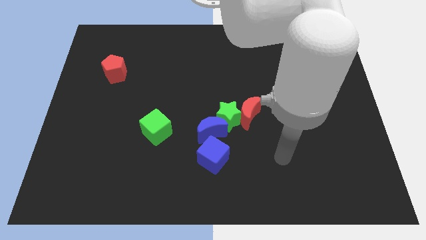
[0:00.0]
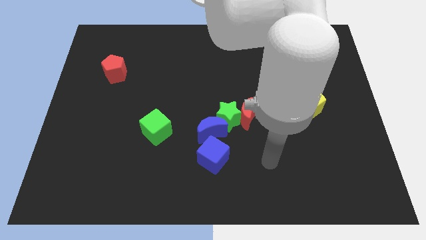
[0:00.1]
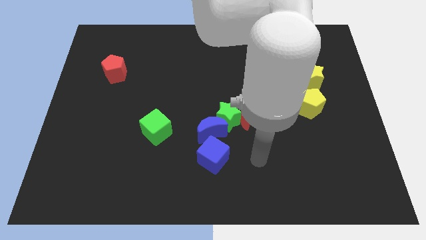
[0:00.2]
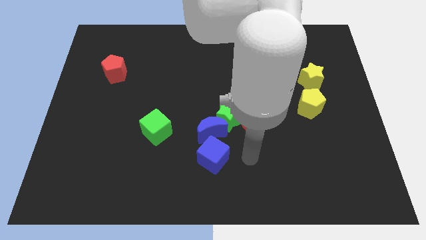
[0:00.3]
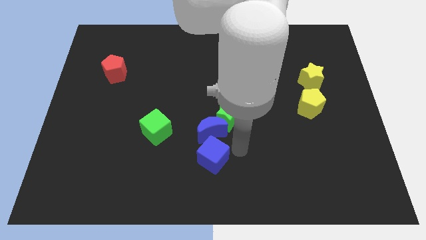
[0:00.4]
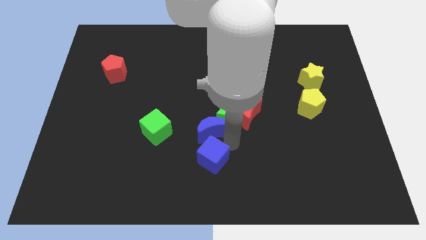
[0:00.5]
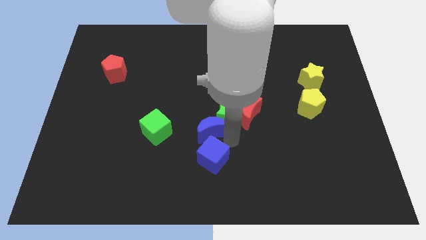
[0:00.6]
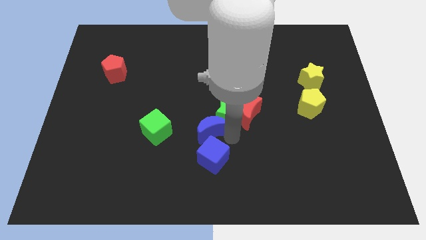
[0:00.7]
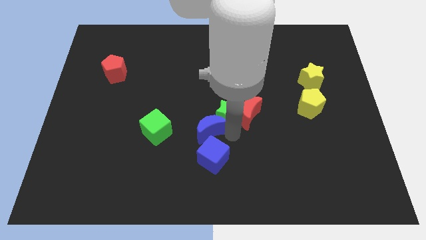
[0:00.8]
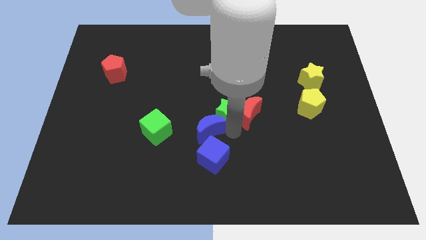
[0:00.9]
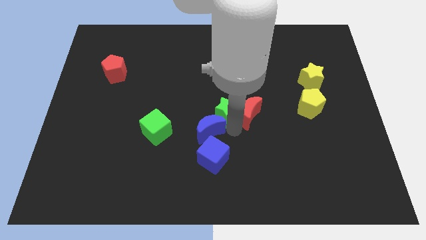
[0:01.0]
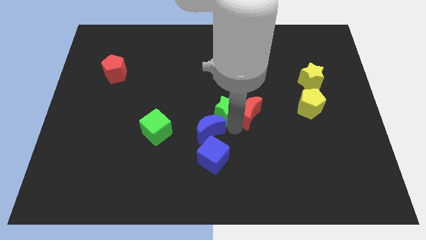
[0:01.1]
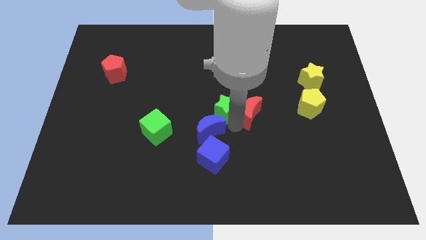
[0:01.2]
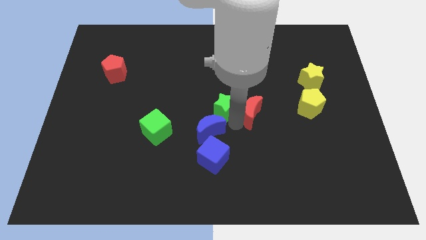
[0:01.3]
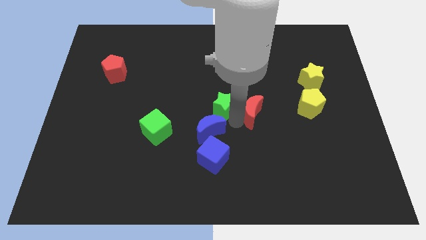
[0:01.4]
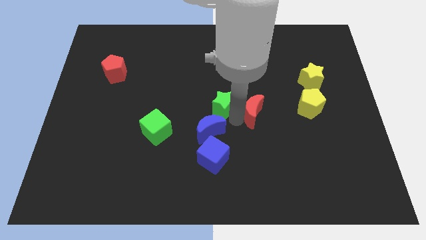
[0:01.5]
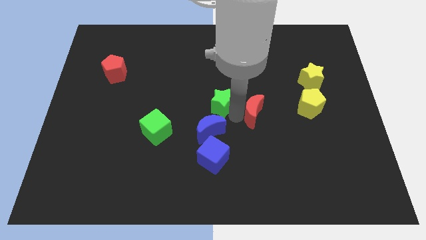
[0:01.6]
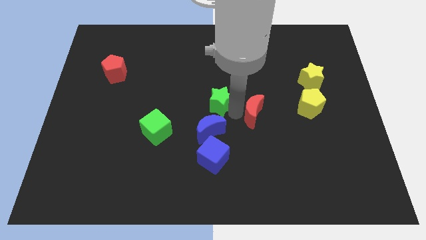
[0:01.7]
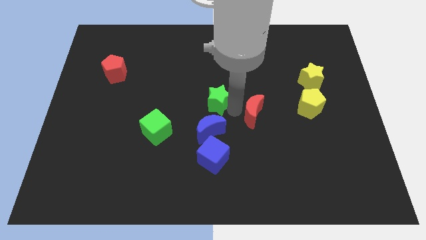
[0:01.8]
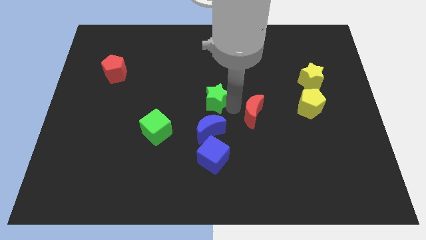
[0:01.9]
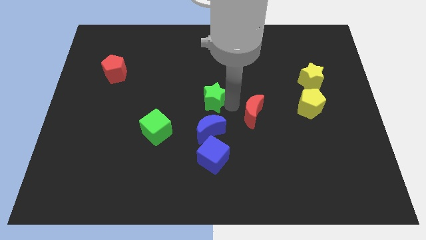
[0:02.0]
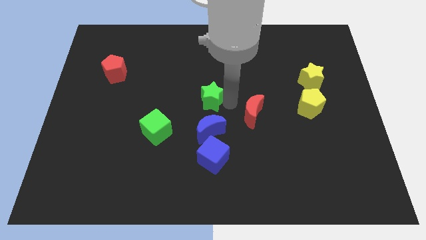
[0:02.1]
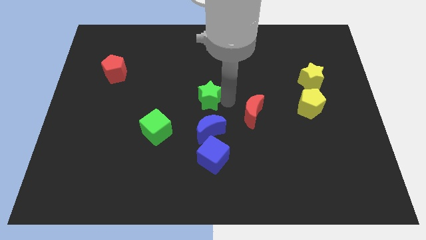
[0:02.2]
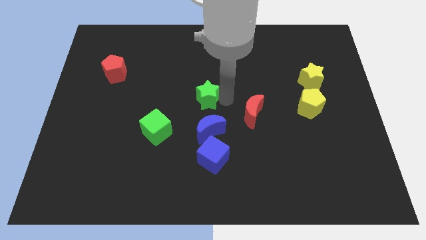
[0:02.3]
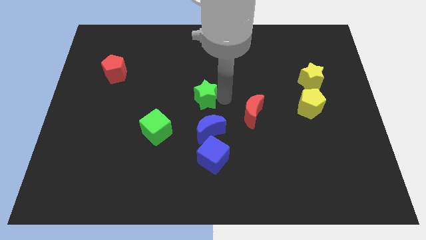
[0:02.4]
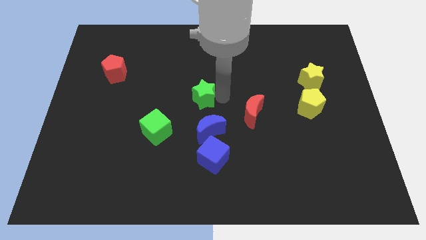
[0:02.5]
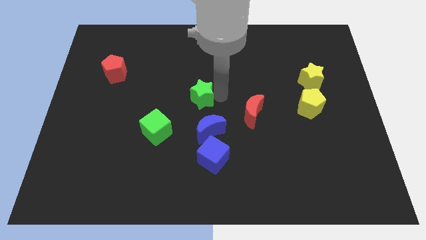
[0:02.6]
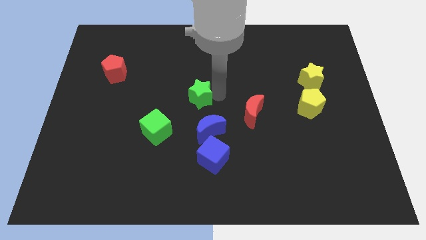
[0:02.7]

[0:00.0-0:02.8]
move the green star away from the red moon and blue moon

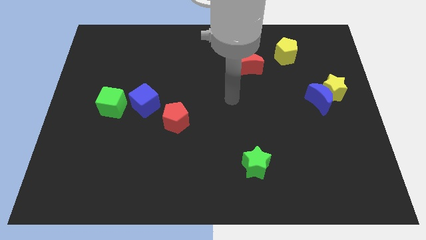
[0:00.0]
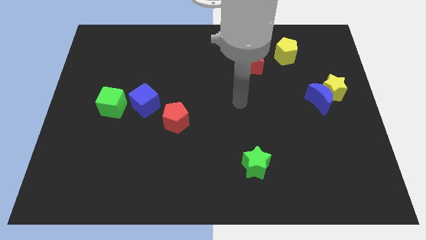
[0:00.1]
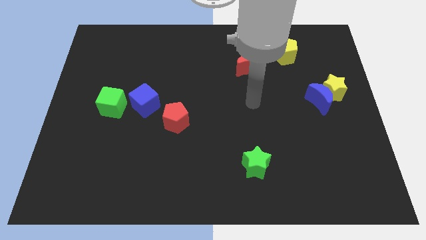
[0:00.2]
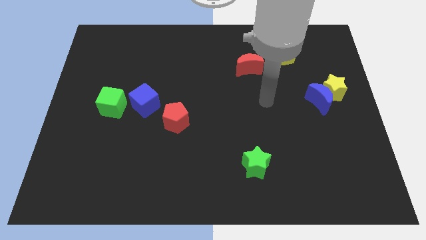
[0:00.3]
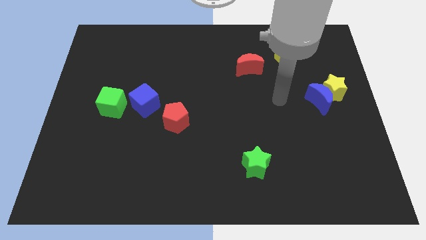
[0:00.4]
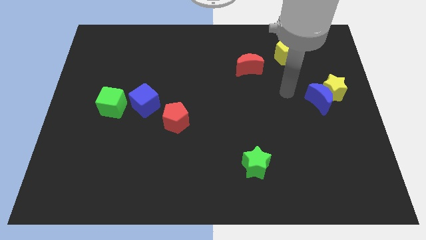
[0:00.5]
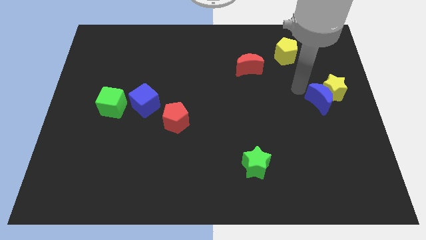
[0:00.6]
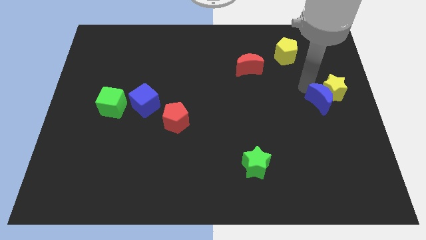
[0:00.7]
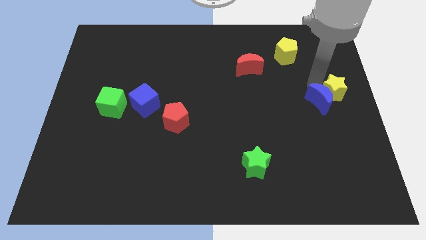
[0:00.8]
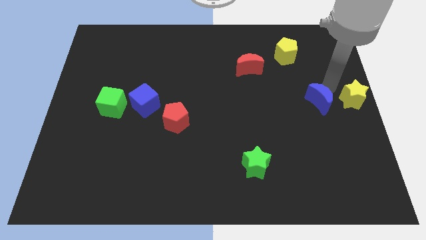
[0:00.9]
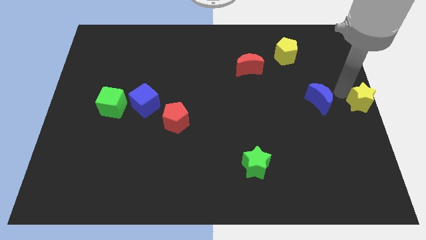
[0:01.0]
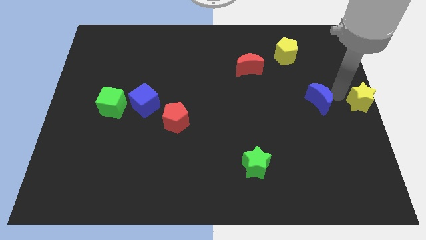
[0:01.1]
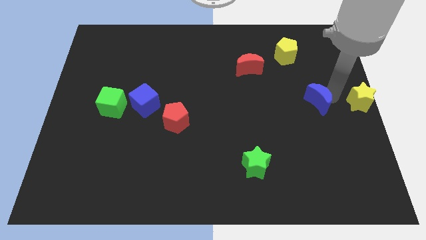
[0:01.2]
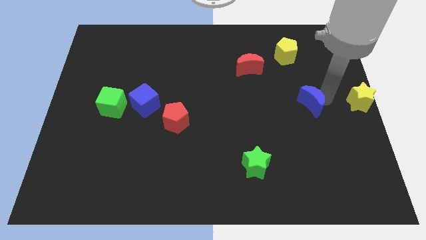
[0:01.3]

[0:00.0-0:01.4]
pull the blue moon apart from the yellow star

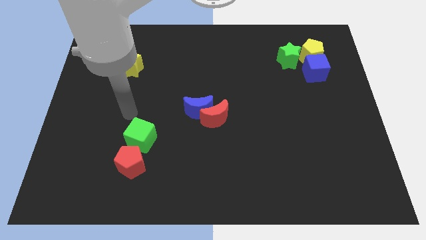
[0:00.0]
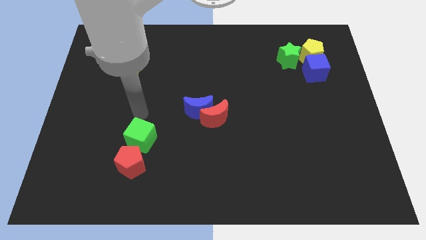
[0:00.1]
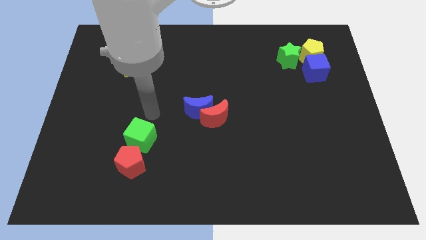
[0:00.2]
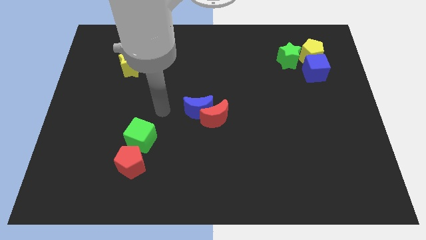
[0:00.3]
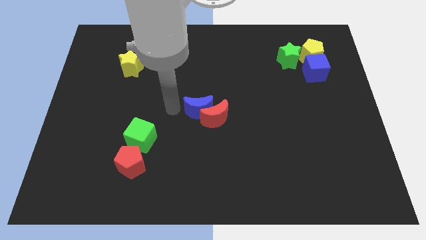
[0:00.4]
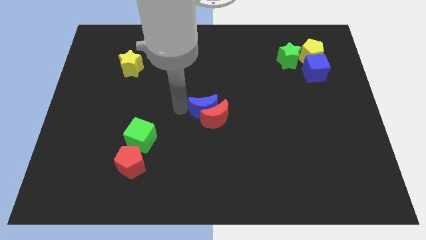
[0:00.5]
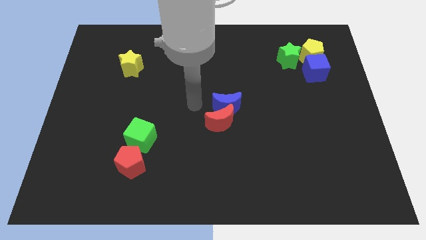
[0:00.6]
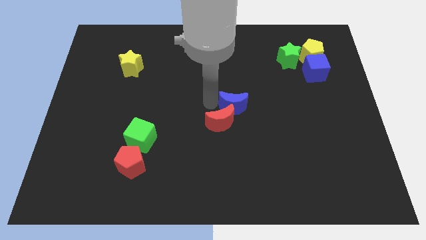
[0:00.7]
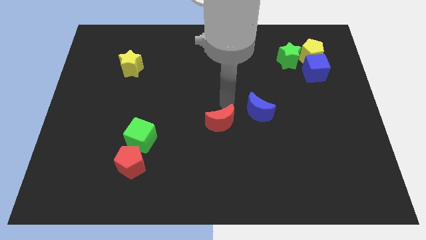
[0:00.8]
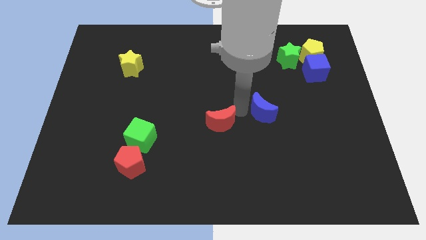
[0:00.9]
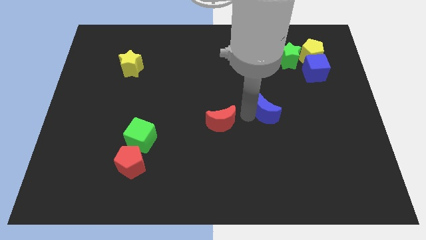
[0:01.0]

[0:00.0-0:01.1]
pull the red moon apart from the blue moon

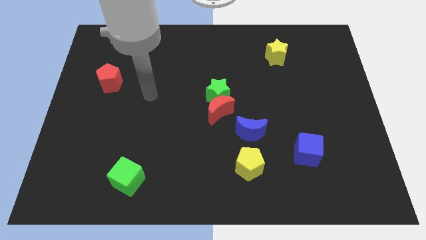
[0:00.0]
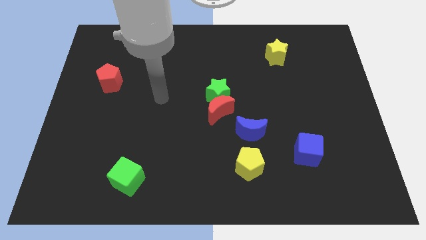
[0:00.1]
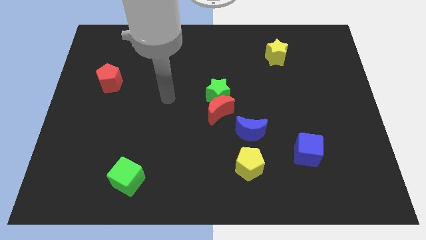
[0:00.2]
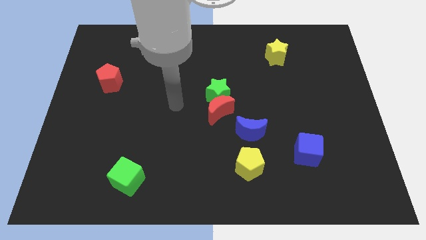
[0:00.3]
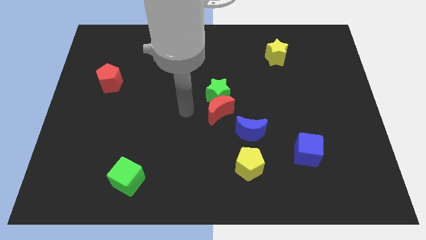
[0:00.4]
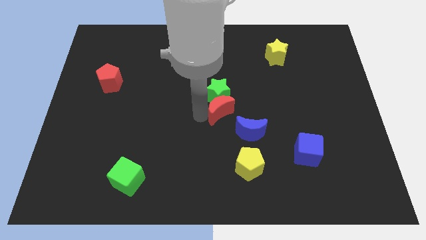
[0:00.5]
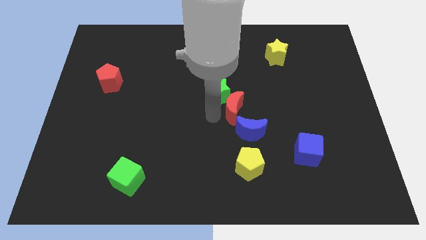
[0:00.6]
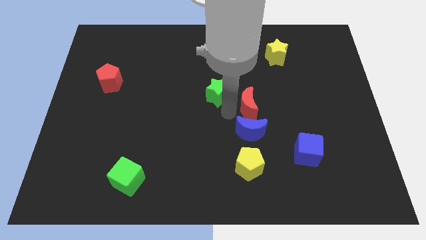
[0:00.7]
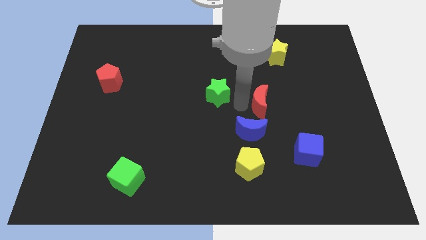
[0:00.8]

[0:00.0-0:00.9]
separate the green star from the red moon

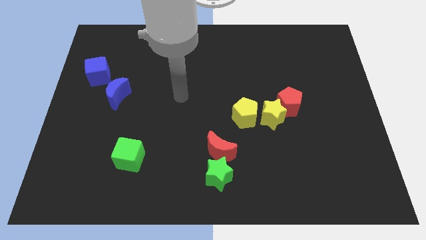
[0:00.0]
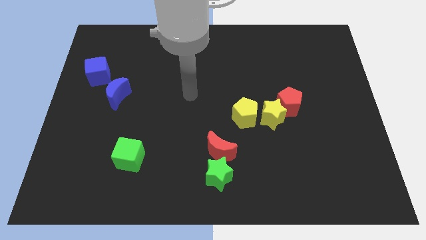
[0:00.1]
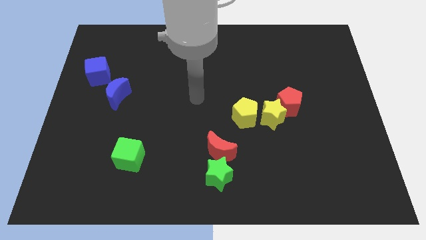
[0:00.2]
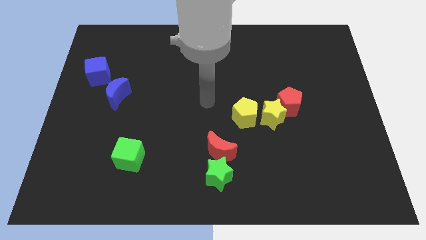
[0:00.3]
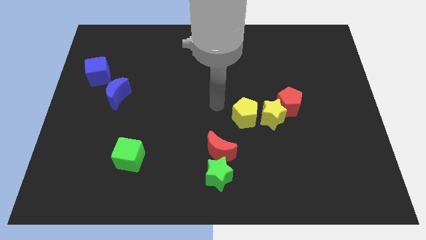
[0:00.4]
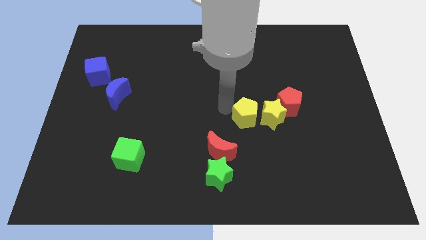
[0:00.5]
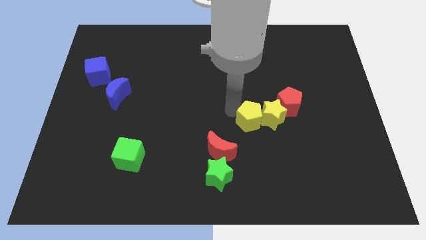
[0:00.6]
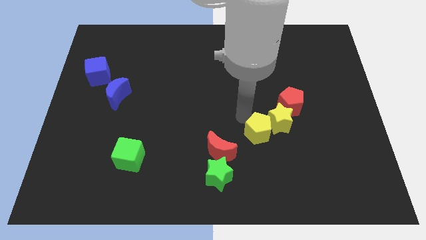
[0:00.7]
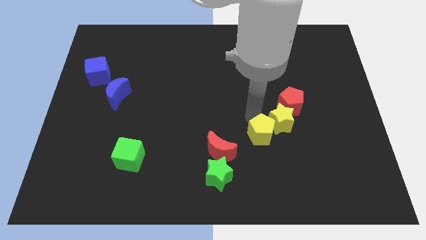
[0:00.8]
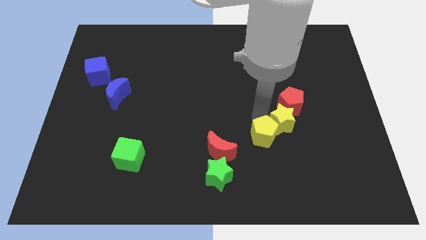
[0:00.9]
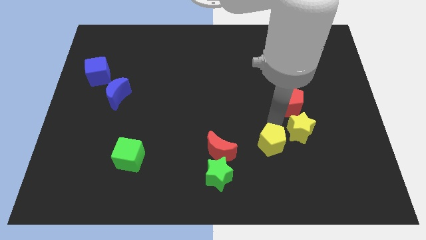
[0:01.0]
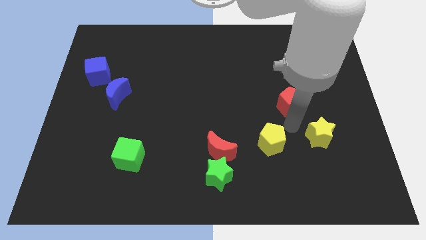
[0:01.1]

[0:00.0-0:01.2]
move the red pentagon away from the yellow star

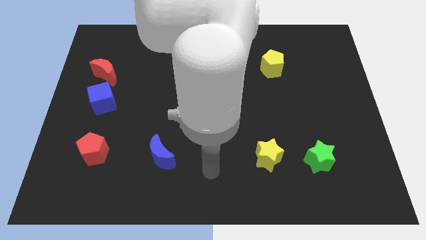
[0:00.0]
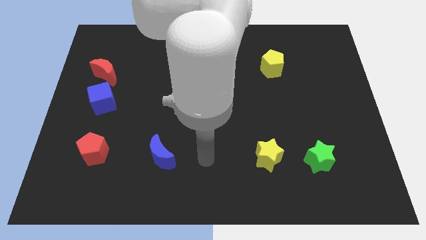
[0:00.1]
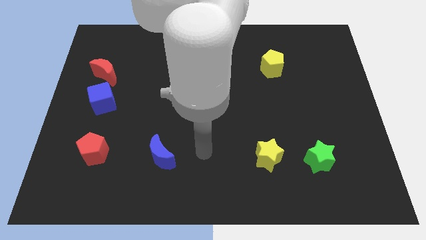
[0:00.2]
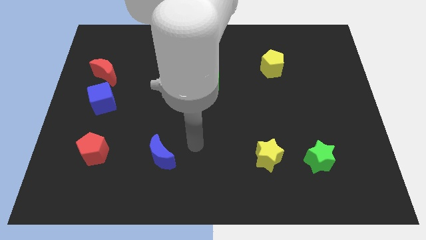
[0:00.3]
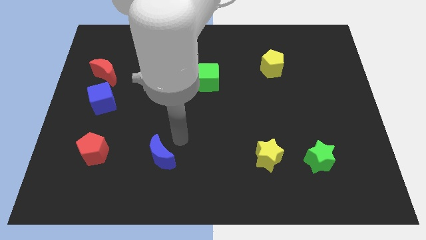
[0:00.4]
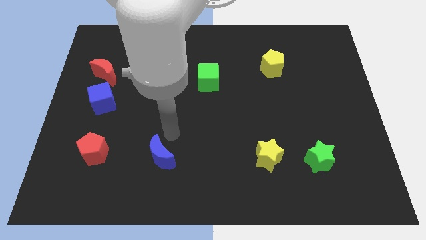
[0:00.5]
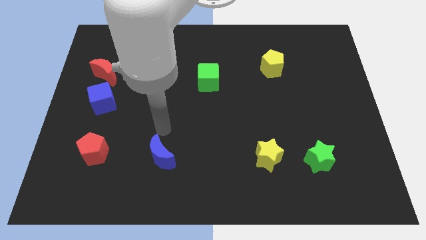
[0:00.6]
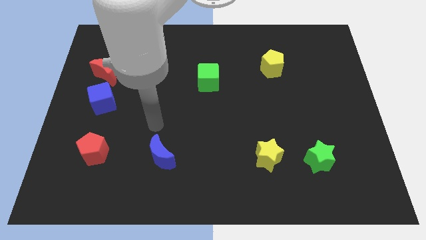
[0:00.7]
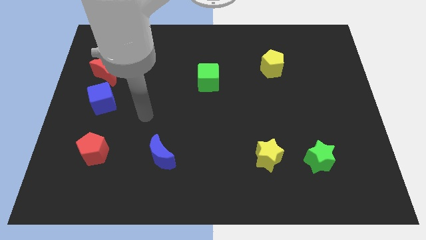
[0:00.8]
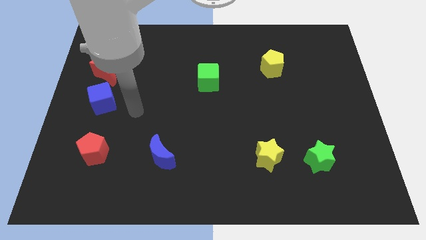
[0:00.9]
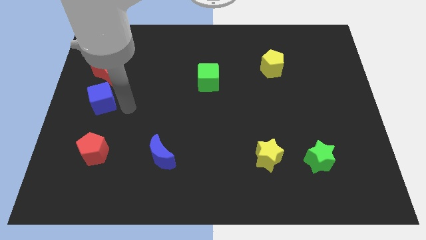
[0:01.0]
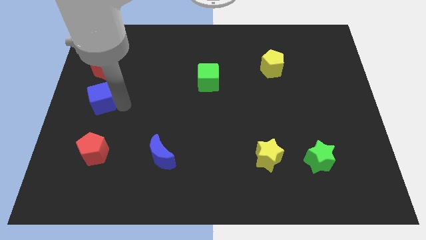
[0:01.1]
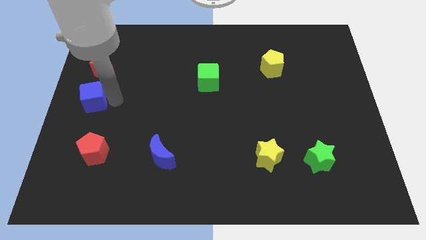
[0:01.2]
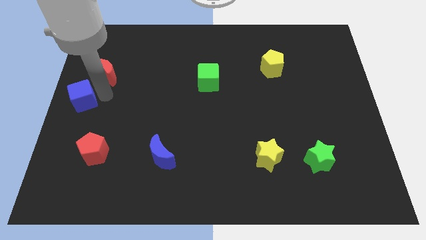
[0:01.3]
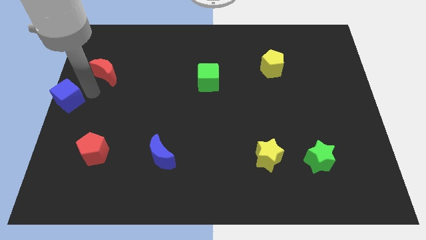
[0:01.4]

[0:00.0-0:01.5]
pull the red moon apart from the blue cube

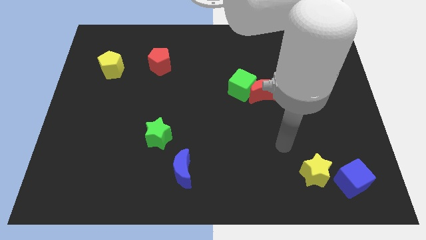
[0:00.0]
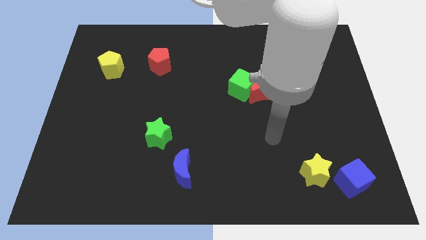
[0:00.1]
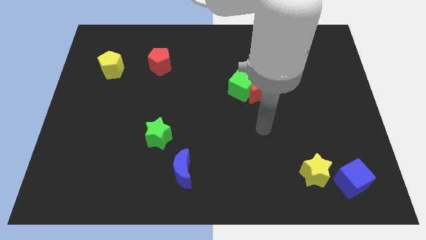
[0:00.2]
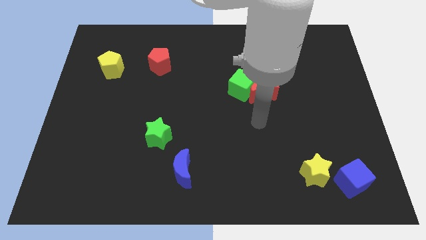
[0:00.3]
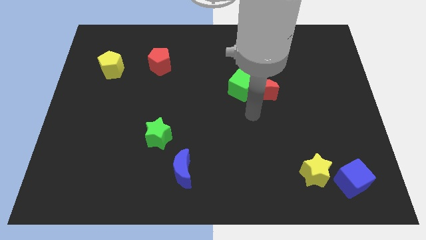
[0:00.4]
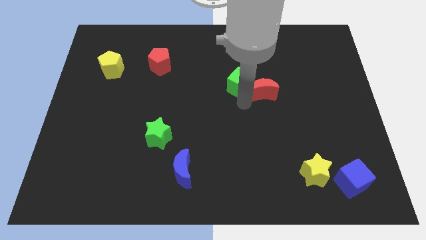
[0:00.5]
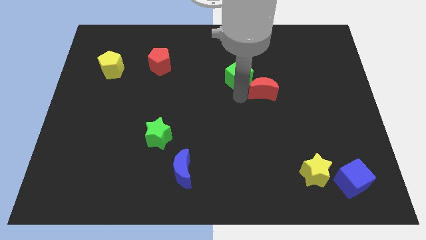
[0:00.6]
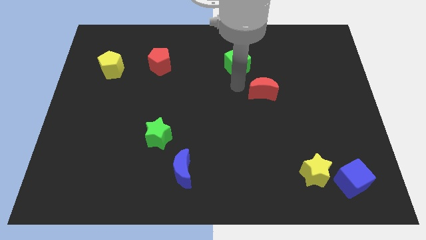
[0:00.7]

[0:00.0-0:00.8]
pull the red moon apart from the green cube
